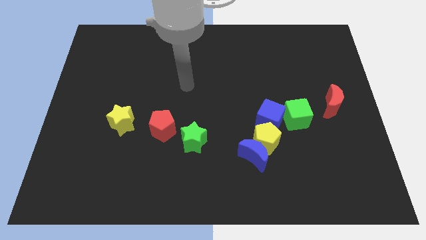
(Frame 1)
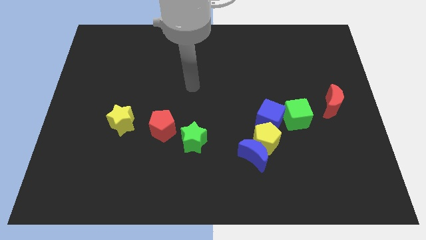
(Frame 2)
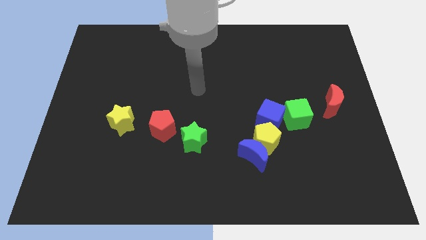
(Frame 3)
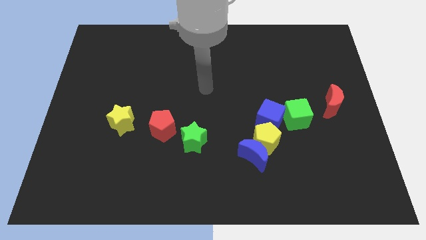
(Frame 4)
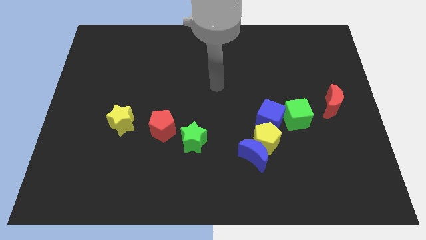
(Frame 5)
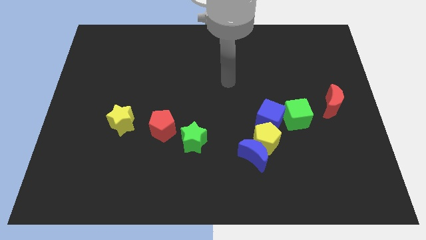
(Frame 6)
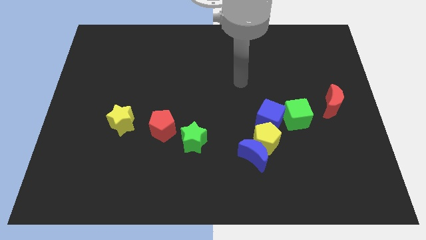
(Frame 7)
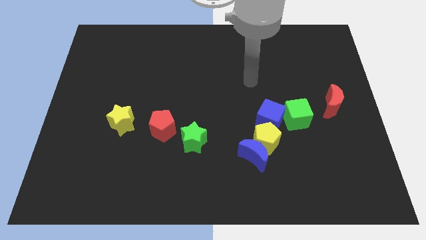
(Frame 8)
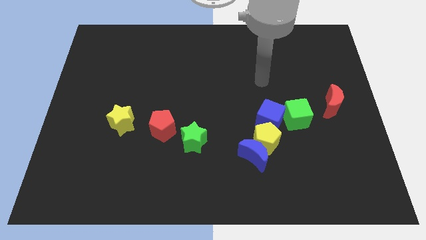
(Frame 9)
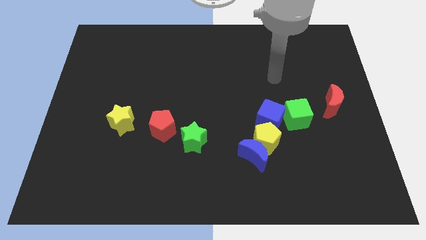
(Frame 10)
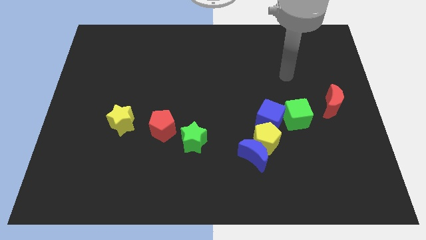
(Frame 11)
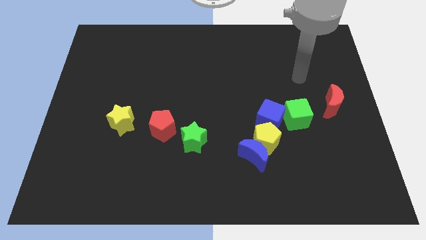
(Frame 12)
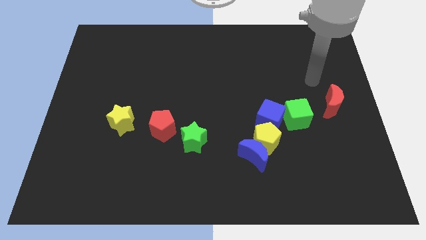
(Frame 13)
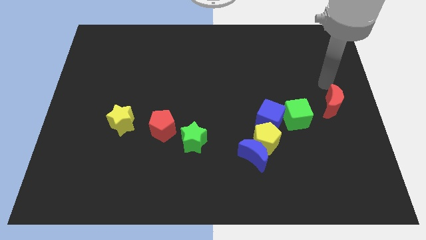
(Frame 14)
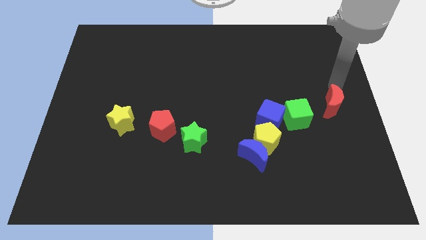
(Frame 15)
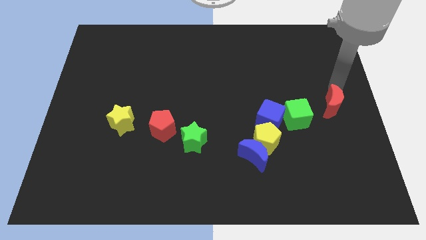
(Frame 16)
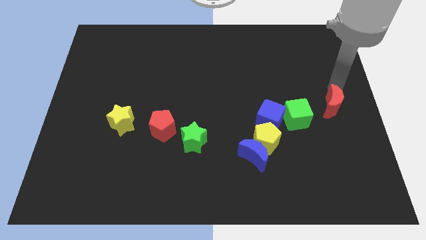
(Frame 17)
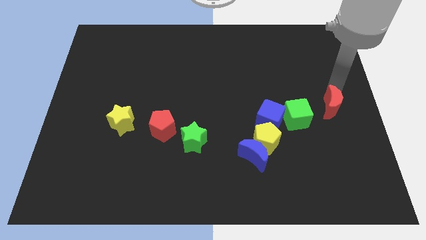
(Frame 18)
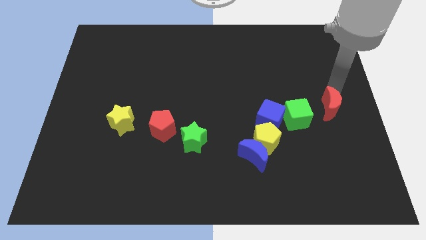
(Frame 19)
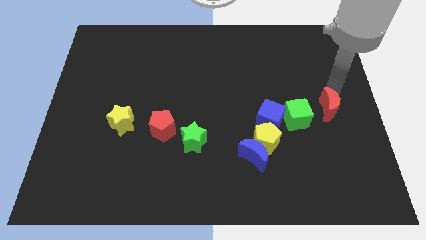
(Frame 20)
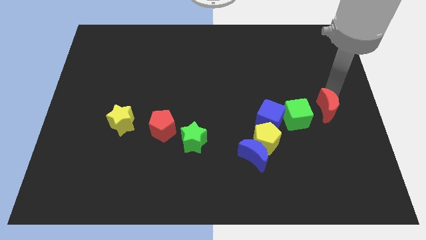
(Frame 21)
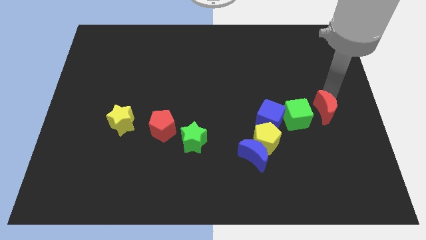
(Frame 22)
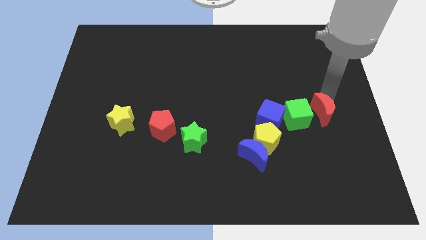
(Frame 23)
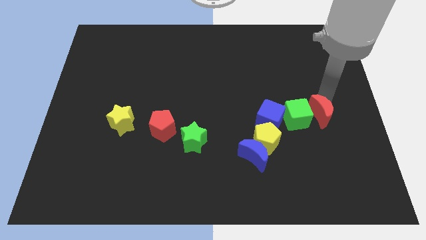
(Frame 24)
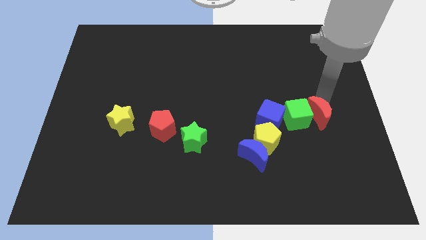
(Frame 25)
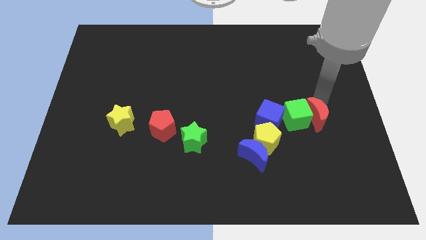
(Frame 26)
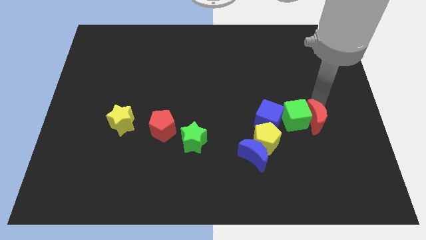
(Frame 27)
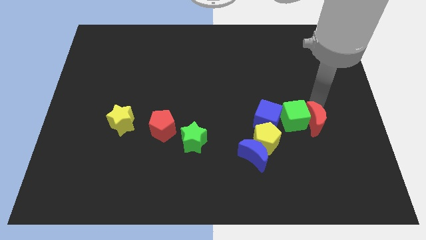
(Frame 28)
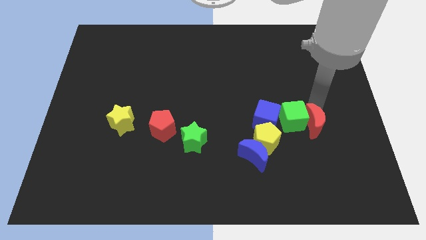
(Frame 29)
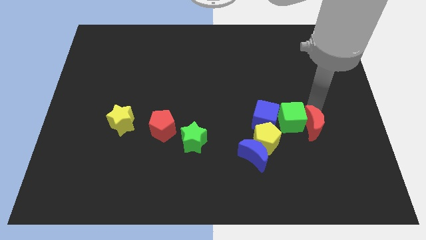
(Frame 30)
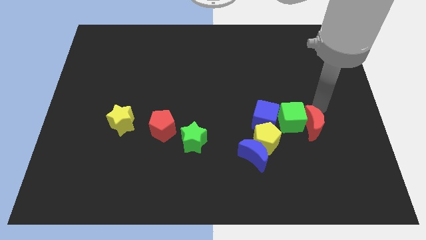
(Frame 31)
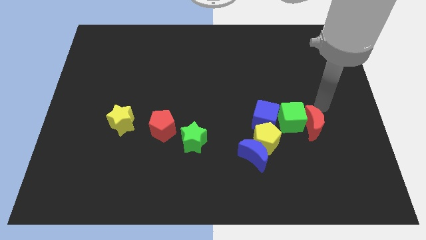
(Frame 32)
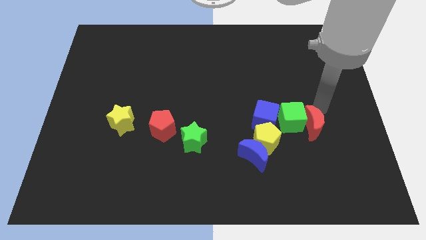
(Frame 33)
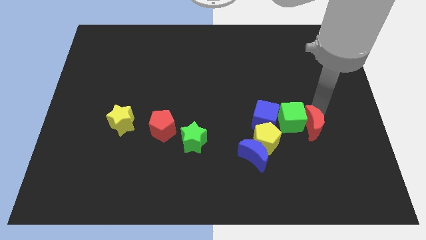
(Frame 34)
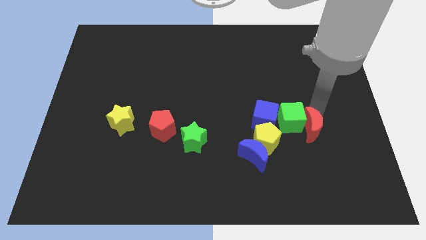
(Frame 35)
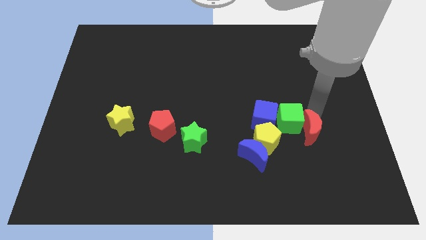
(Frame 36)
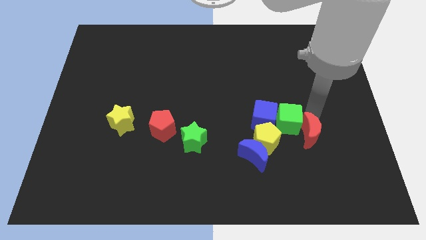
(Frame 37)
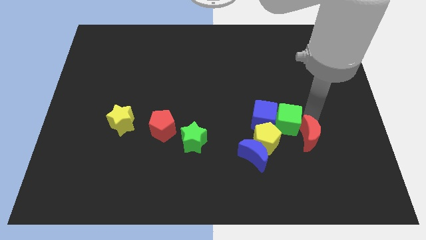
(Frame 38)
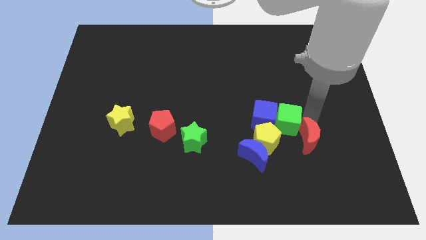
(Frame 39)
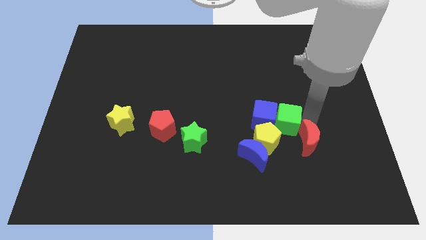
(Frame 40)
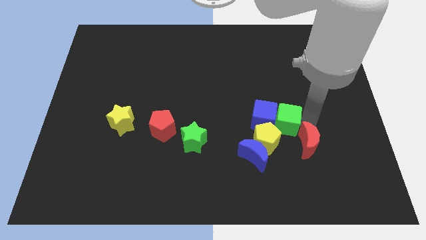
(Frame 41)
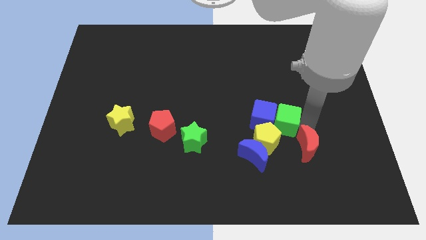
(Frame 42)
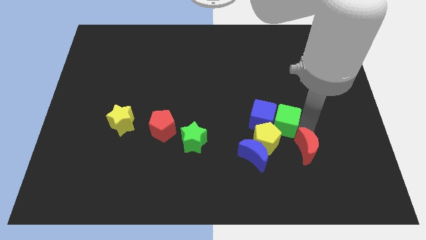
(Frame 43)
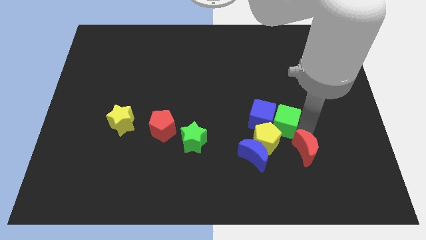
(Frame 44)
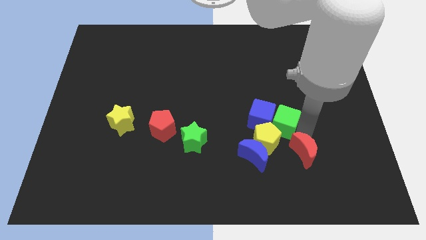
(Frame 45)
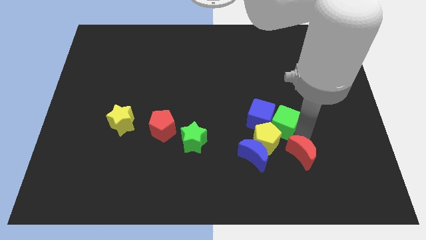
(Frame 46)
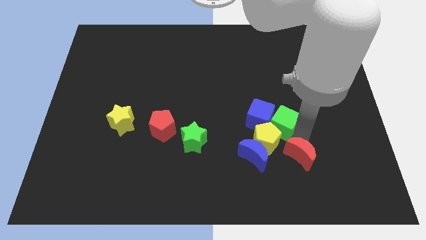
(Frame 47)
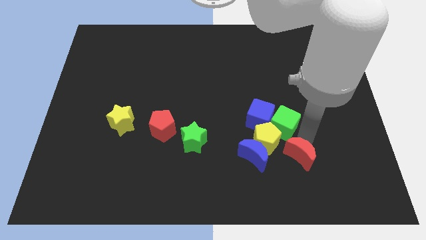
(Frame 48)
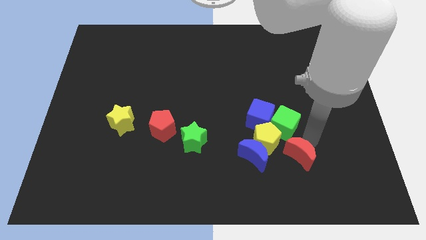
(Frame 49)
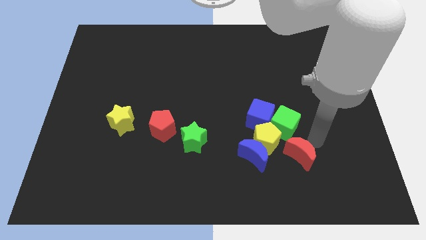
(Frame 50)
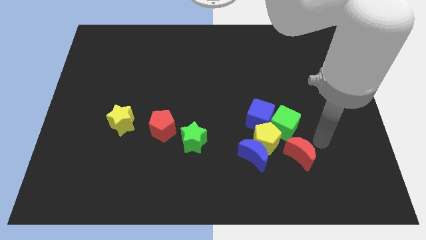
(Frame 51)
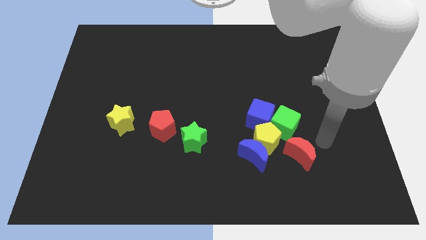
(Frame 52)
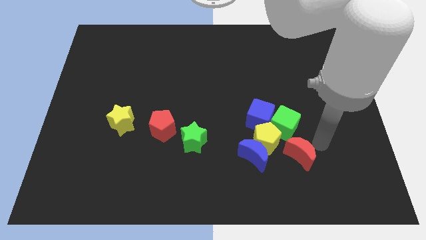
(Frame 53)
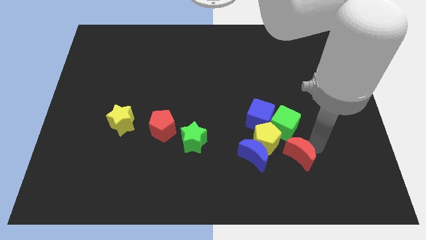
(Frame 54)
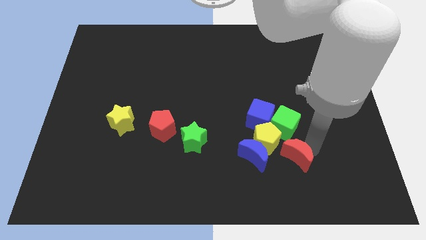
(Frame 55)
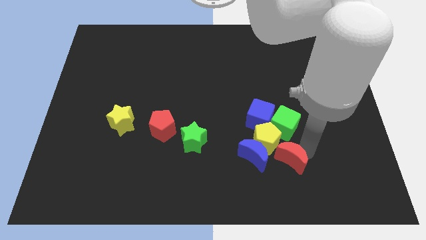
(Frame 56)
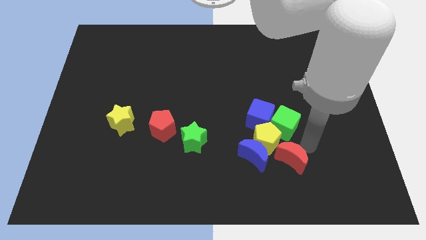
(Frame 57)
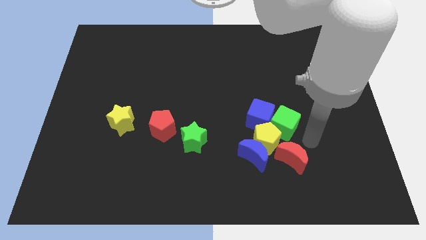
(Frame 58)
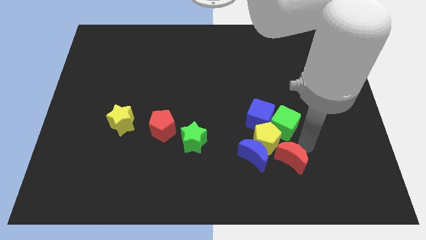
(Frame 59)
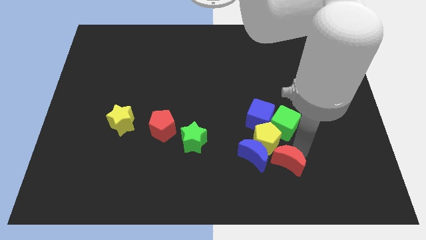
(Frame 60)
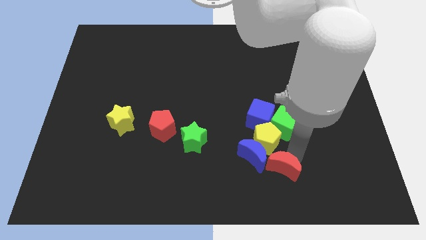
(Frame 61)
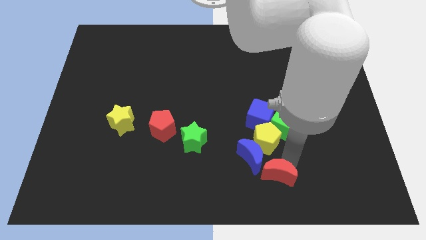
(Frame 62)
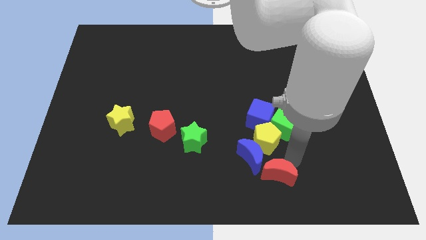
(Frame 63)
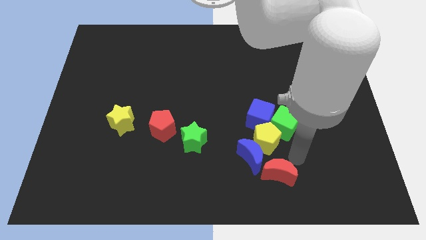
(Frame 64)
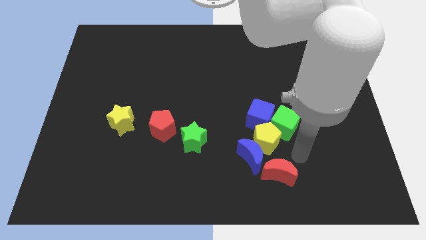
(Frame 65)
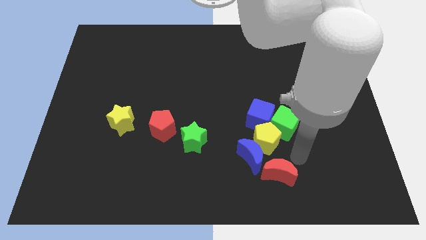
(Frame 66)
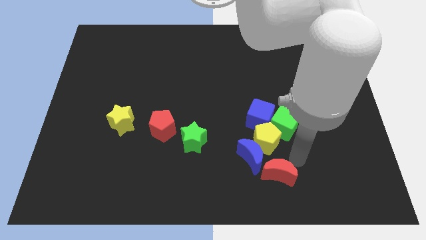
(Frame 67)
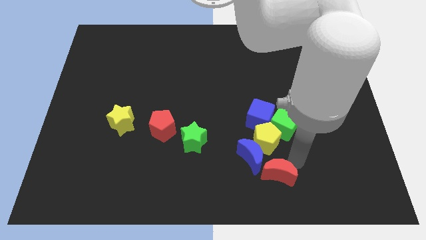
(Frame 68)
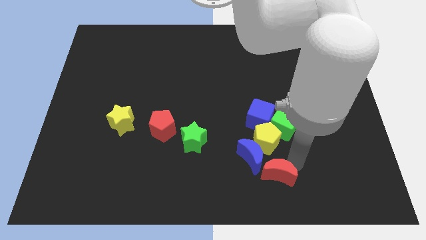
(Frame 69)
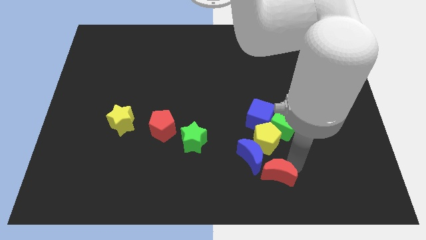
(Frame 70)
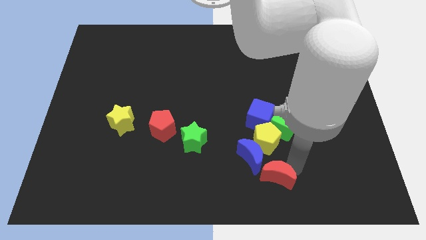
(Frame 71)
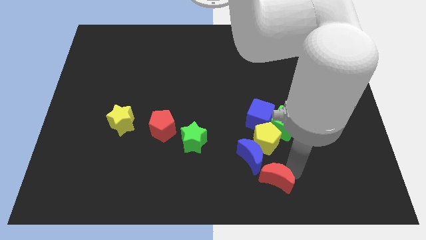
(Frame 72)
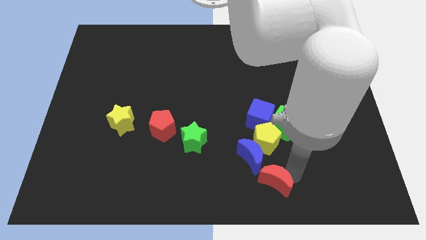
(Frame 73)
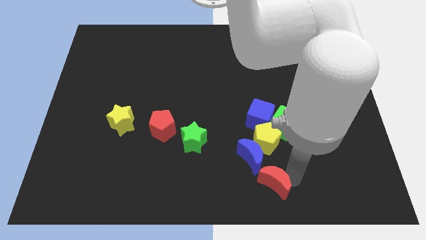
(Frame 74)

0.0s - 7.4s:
move the red moon to the bottom

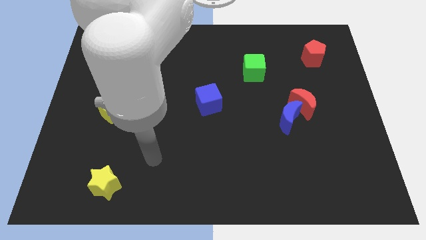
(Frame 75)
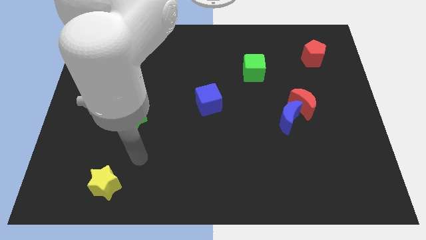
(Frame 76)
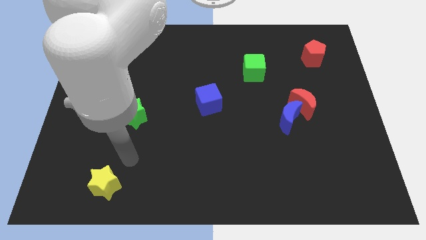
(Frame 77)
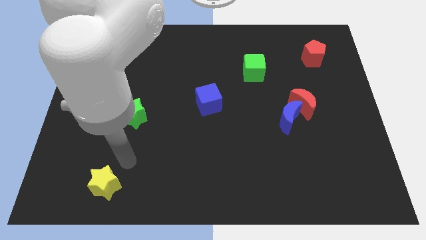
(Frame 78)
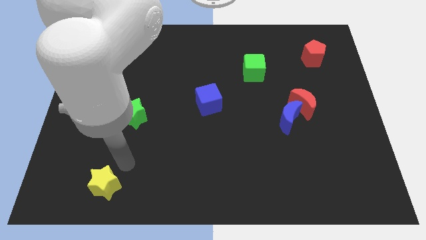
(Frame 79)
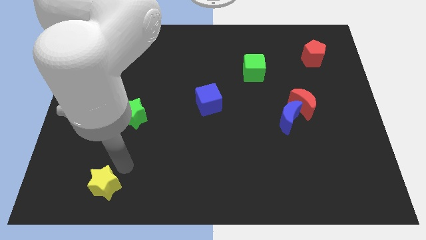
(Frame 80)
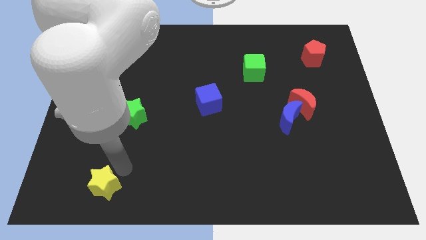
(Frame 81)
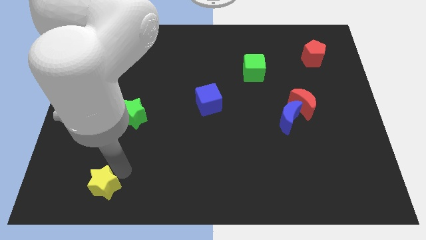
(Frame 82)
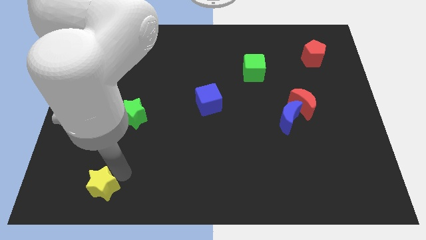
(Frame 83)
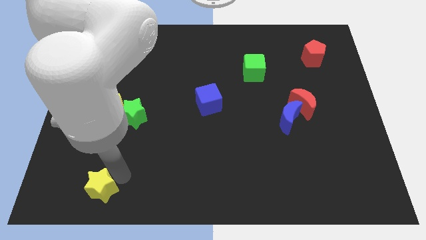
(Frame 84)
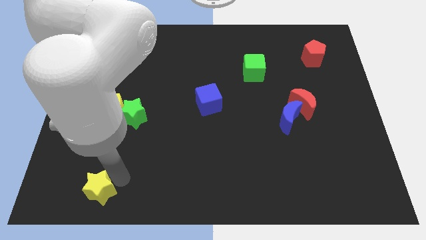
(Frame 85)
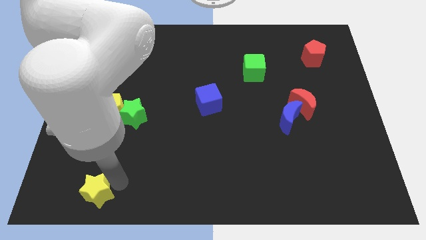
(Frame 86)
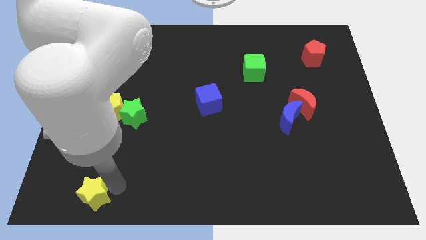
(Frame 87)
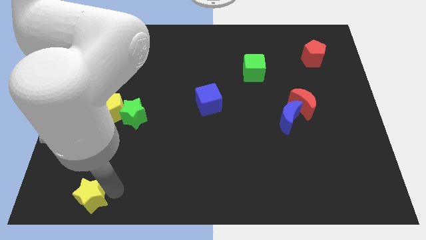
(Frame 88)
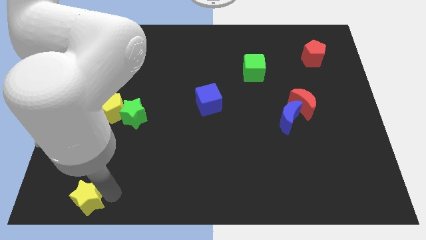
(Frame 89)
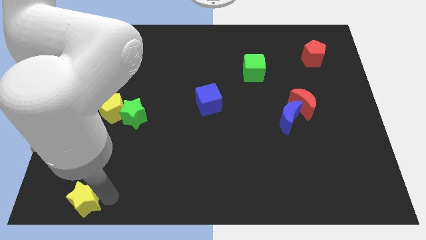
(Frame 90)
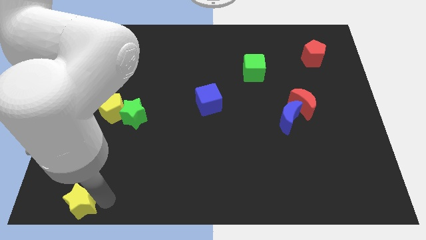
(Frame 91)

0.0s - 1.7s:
move the yellow star to the lower left corner
